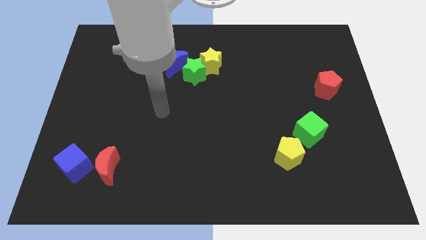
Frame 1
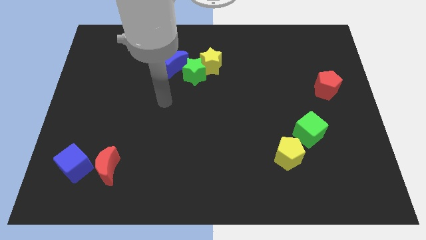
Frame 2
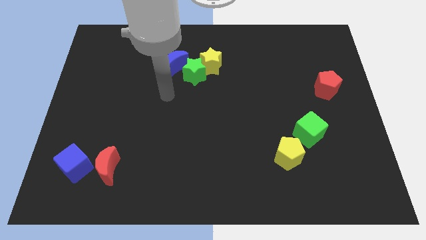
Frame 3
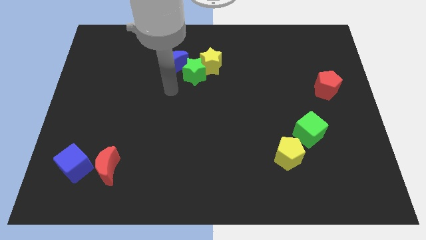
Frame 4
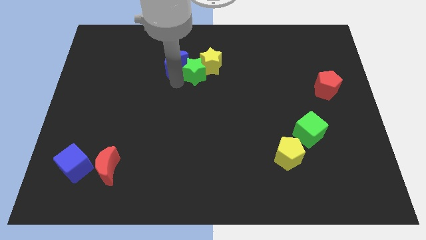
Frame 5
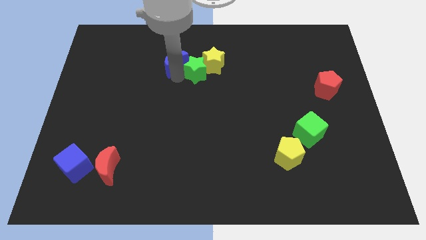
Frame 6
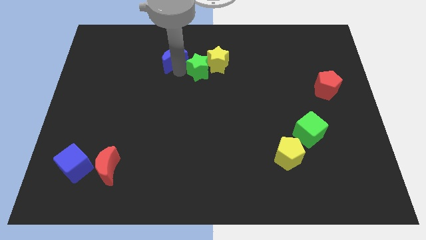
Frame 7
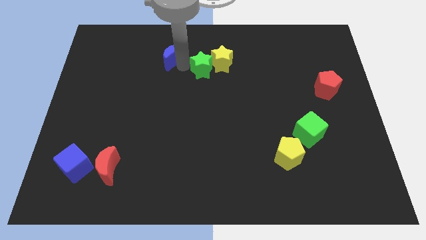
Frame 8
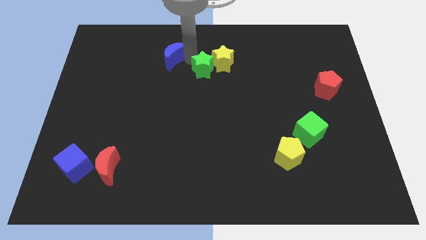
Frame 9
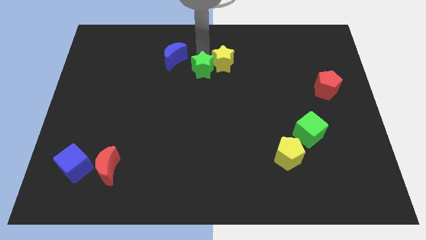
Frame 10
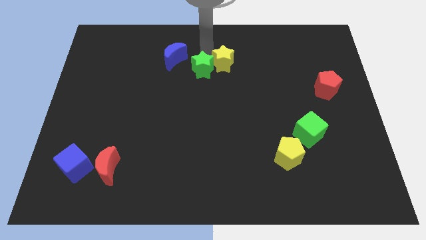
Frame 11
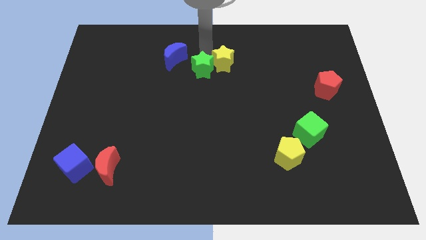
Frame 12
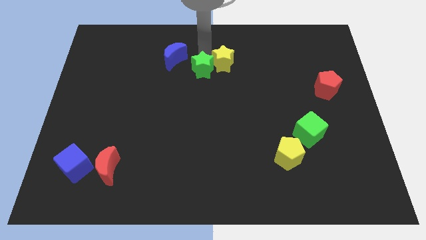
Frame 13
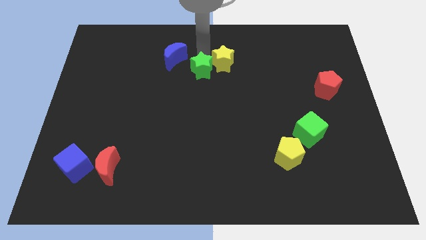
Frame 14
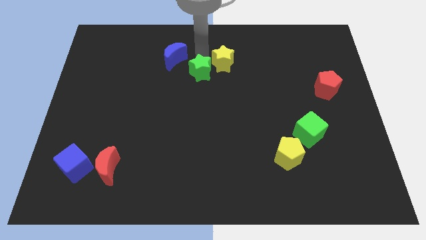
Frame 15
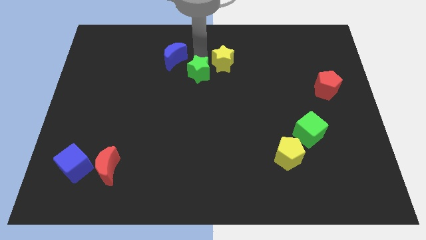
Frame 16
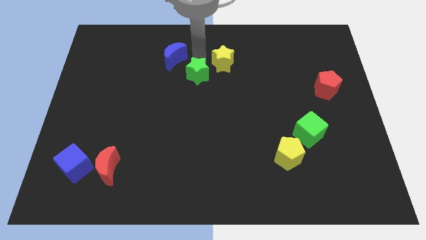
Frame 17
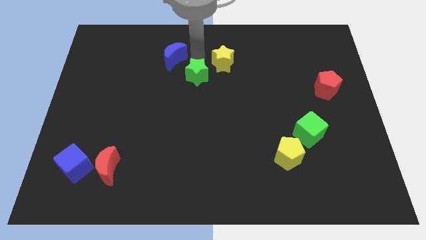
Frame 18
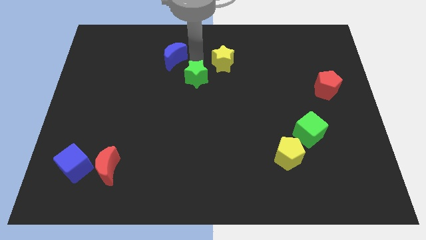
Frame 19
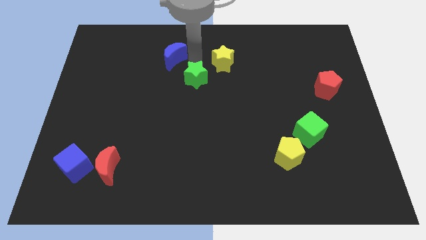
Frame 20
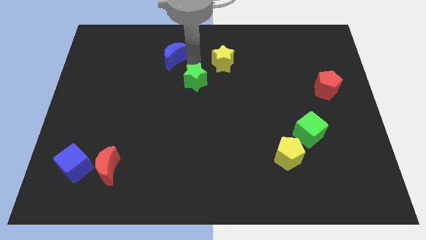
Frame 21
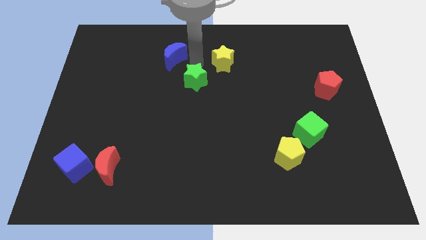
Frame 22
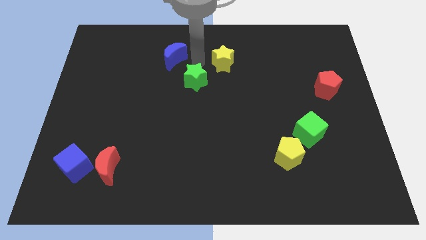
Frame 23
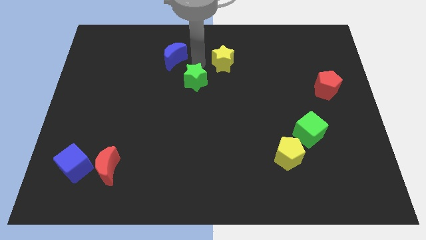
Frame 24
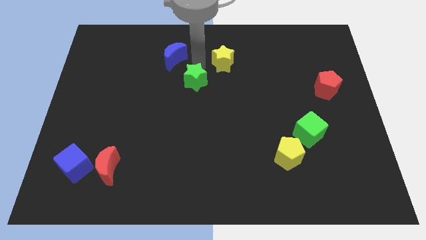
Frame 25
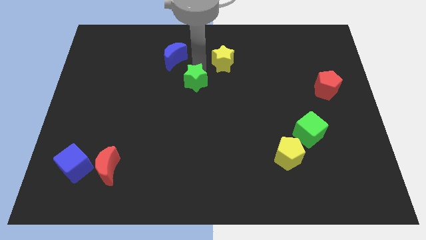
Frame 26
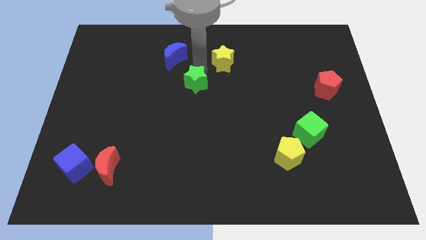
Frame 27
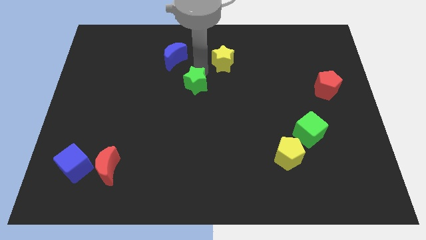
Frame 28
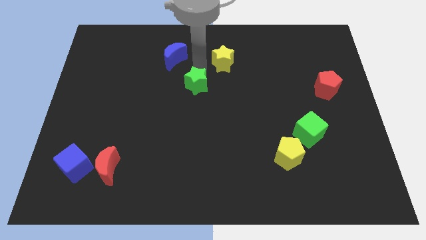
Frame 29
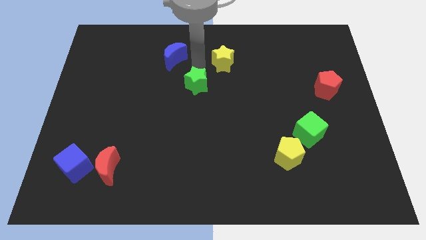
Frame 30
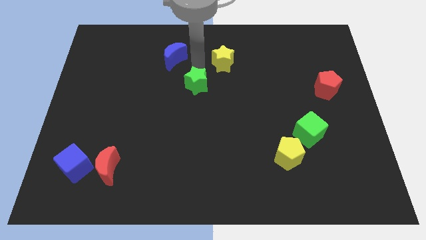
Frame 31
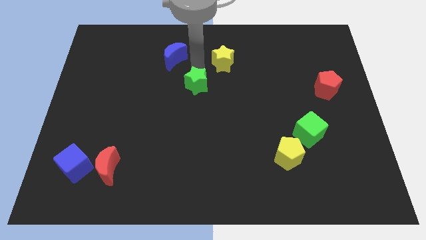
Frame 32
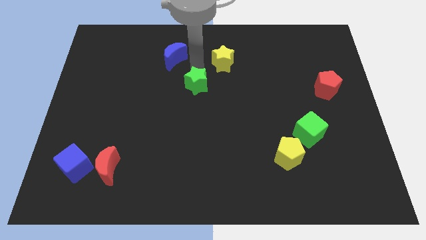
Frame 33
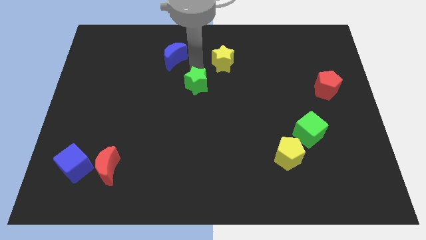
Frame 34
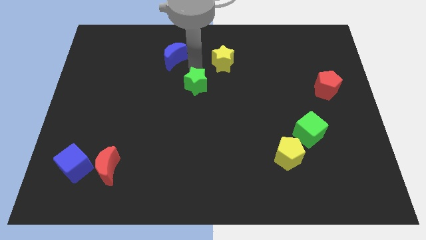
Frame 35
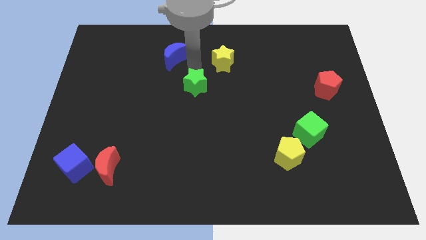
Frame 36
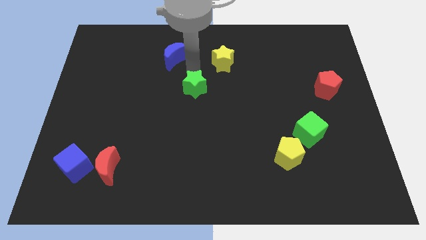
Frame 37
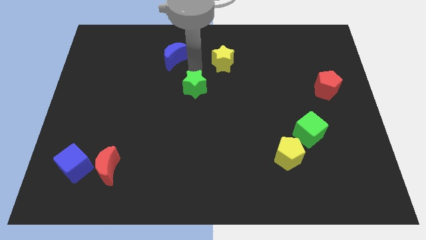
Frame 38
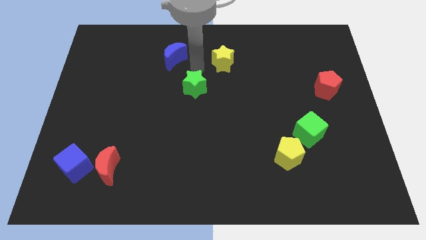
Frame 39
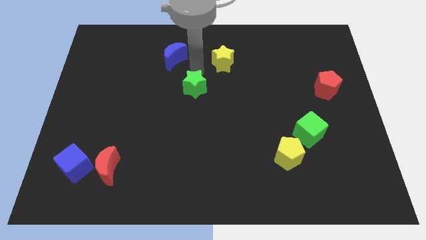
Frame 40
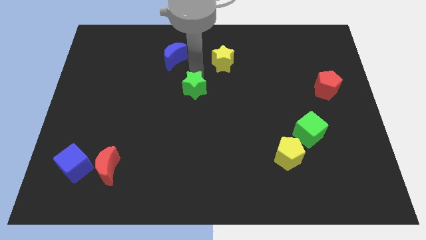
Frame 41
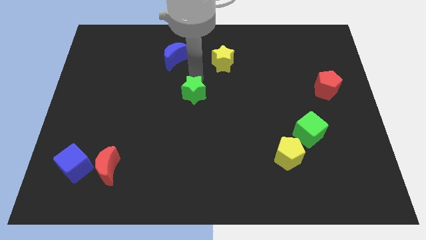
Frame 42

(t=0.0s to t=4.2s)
separate the green star from the yellow star and blue moon

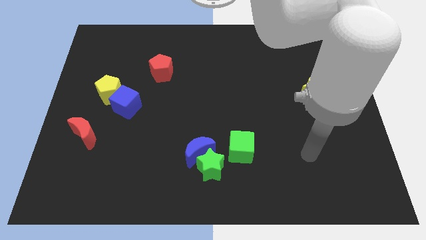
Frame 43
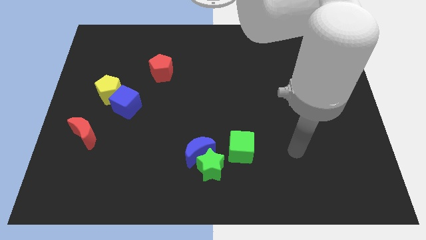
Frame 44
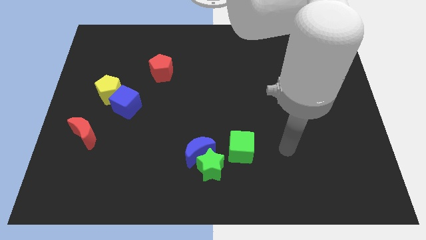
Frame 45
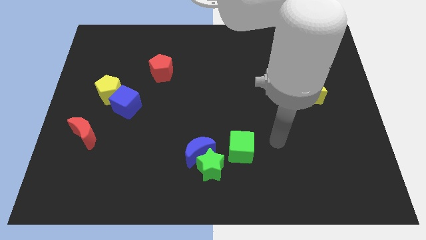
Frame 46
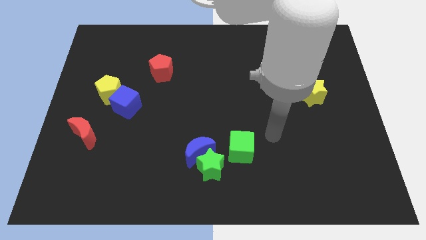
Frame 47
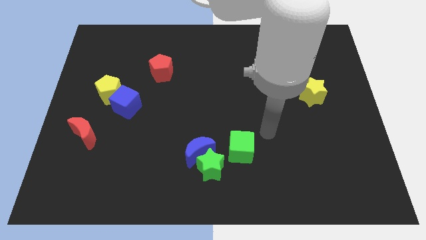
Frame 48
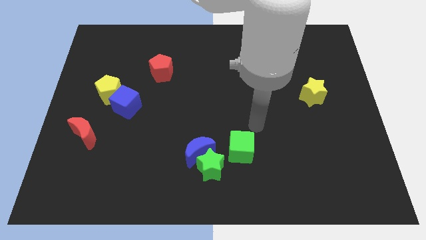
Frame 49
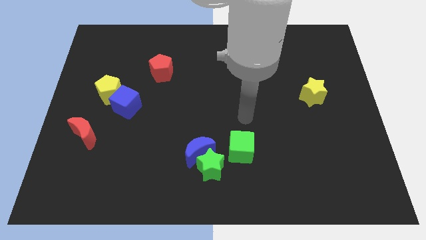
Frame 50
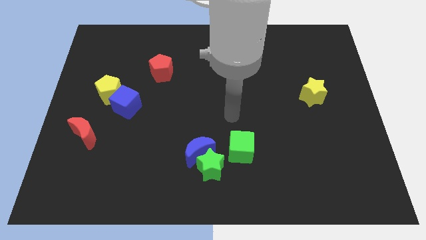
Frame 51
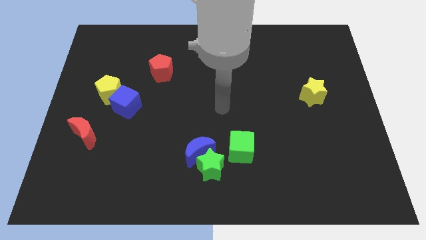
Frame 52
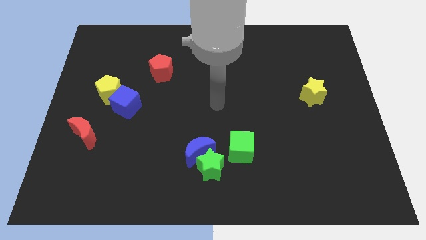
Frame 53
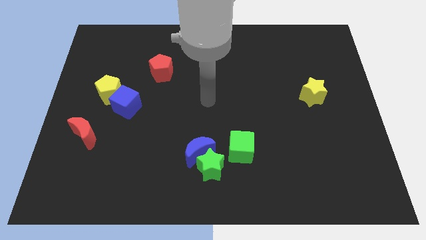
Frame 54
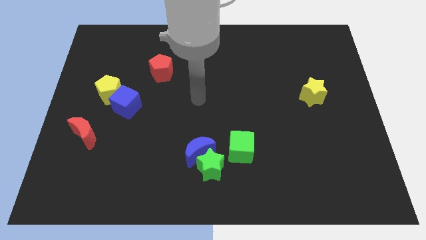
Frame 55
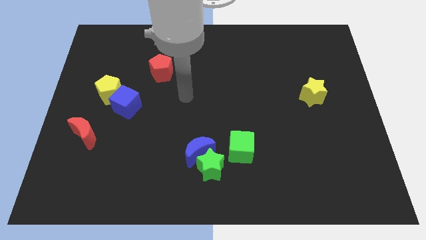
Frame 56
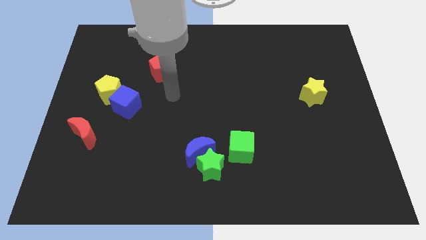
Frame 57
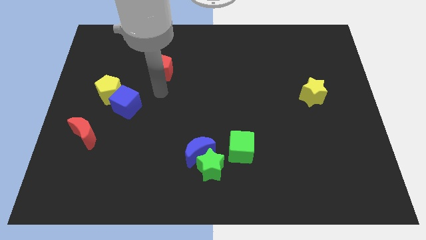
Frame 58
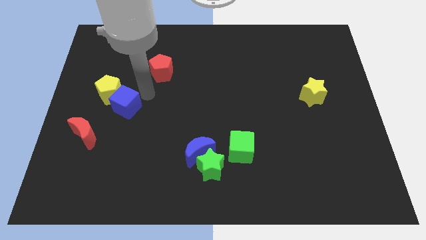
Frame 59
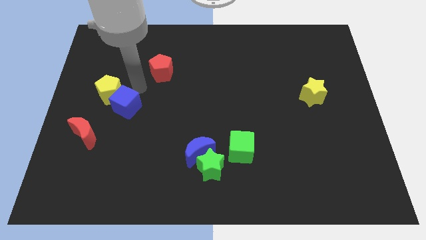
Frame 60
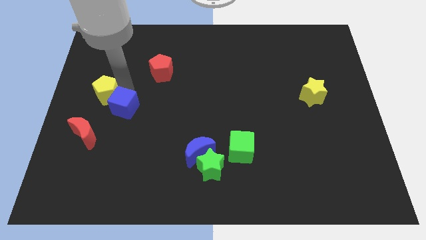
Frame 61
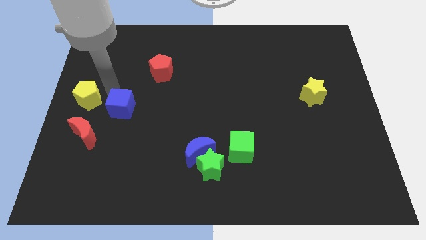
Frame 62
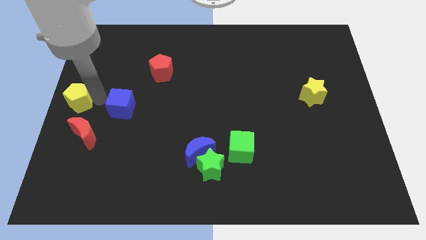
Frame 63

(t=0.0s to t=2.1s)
move the blue cube away from the yellow pentagon

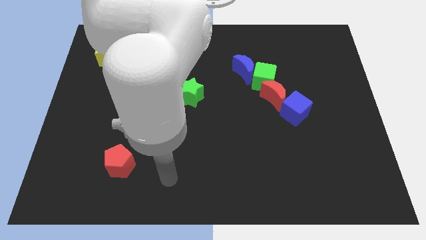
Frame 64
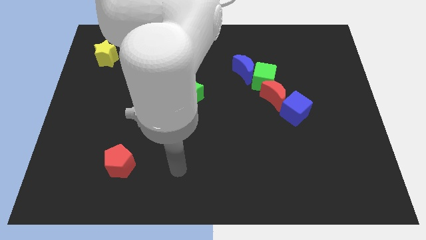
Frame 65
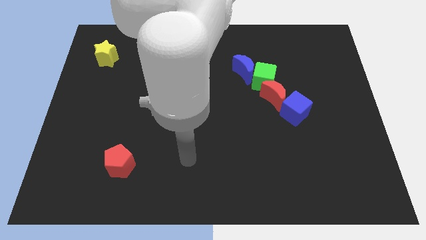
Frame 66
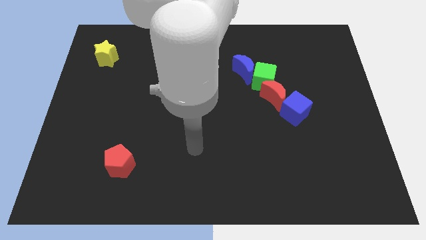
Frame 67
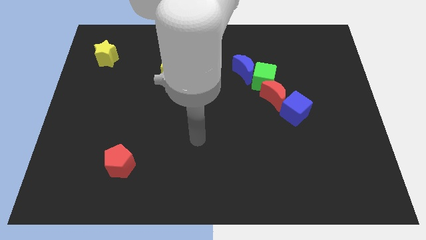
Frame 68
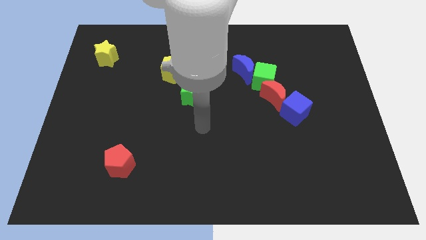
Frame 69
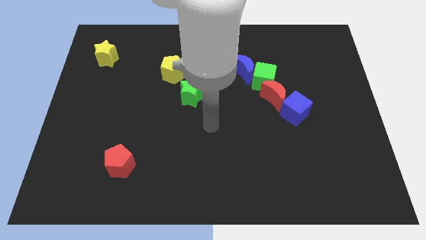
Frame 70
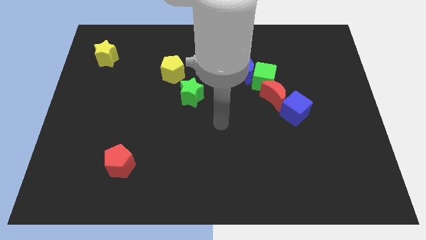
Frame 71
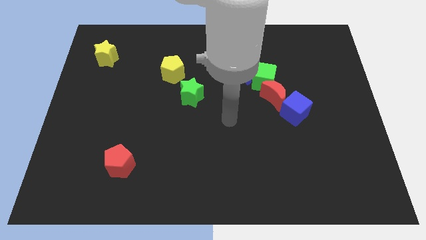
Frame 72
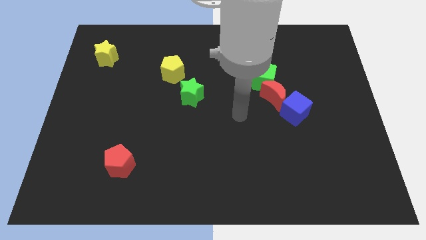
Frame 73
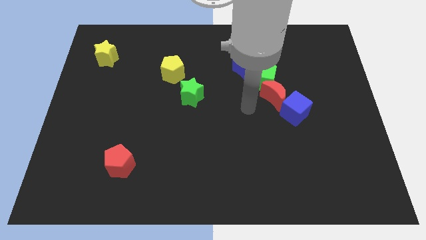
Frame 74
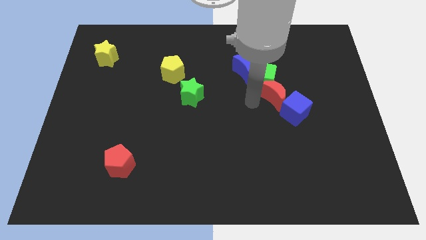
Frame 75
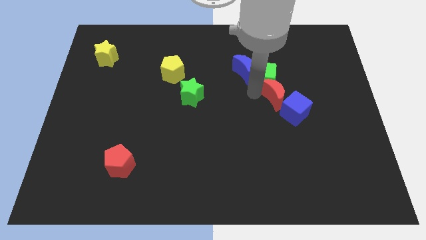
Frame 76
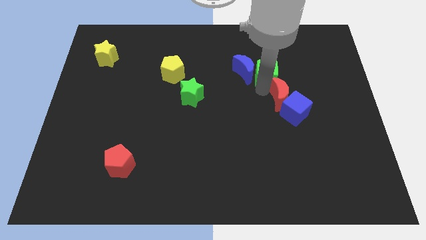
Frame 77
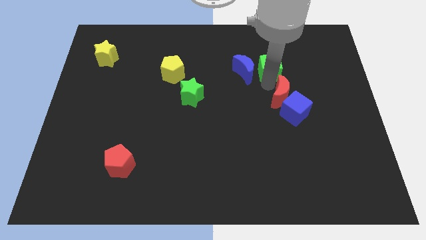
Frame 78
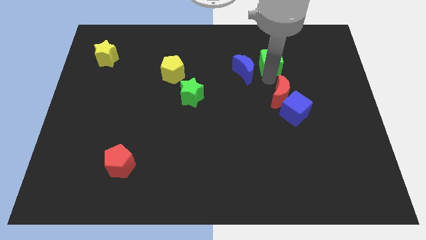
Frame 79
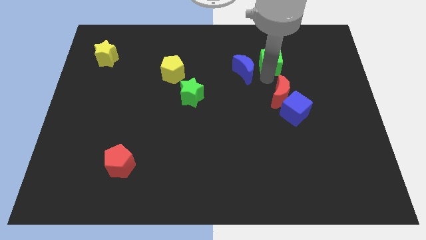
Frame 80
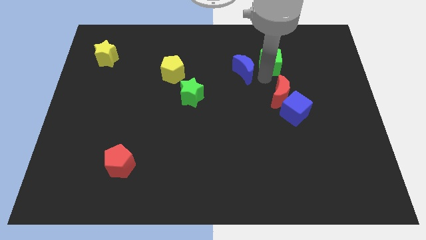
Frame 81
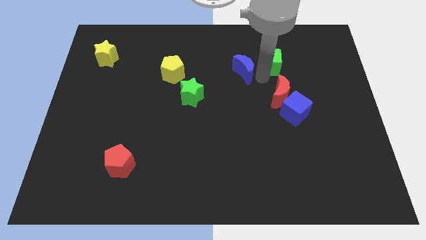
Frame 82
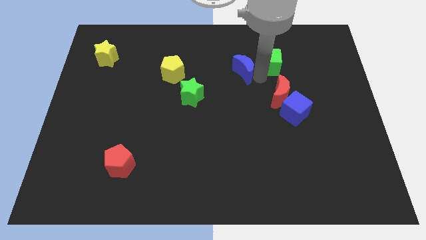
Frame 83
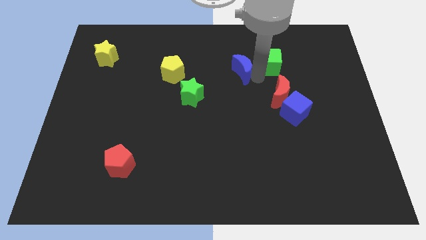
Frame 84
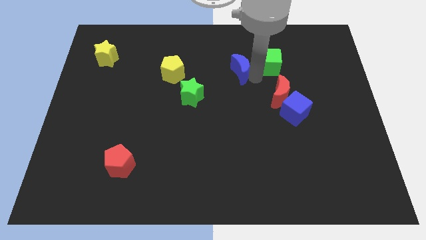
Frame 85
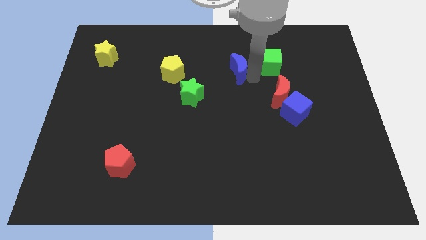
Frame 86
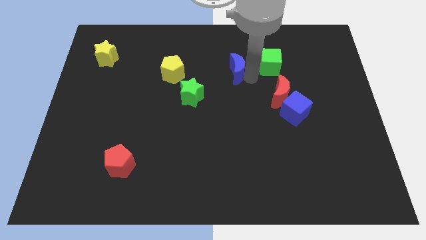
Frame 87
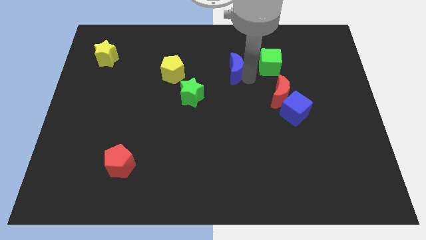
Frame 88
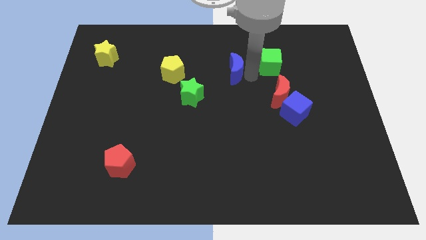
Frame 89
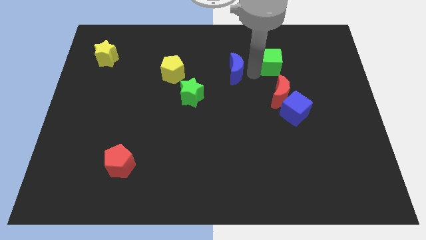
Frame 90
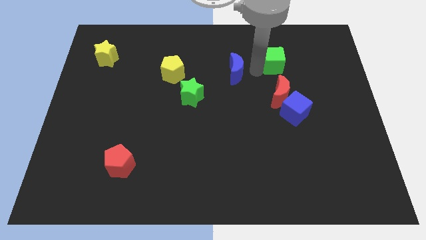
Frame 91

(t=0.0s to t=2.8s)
move the blue moon away from the green cube

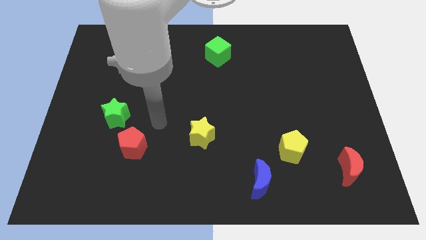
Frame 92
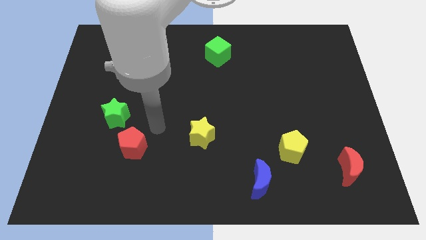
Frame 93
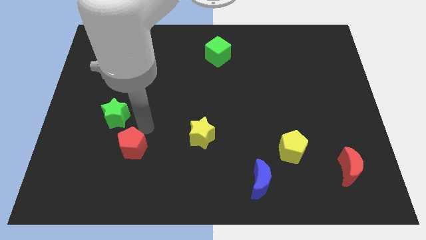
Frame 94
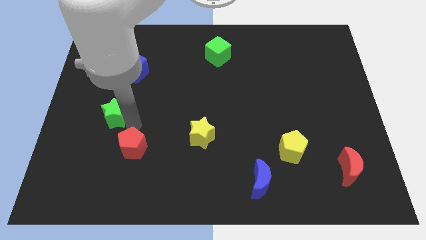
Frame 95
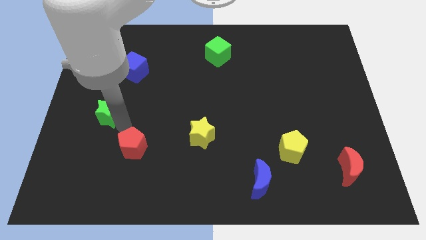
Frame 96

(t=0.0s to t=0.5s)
pull the red pentagon apart from the green star
